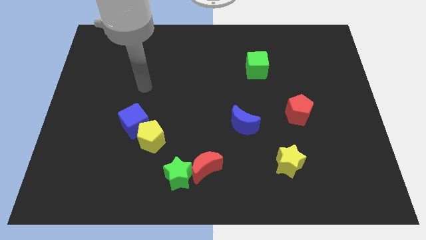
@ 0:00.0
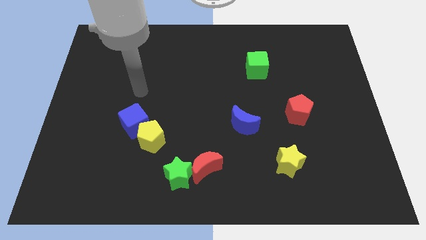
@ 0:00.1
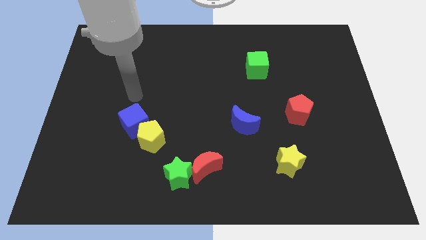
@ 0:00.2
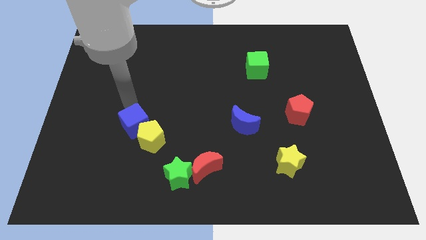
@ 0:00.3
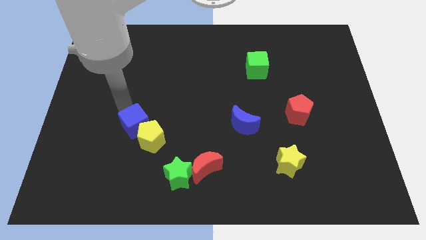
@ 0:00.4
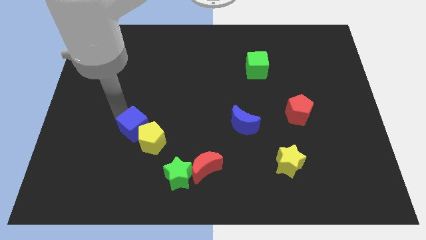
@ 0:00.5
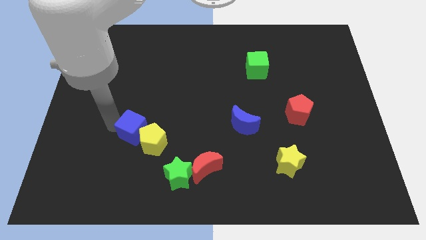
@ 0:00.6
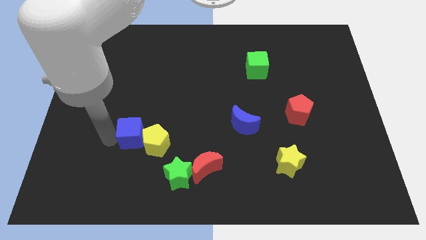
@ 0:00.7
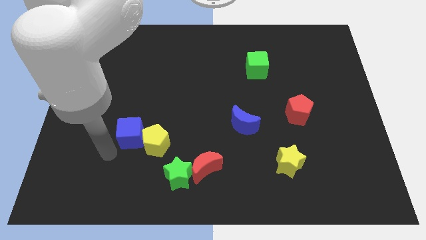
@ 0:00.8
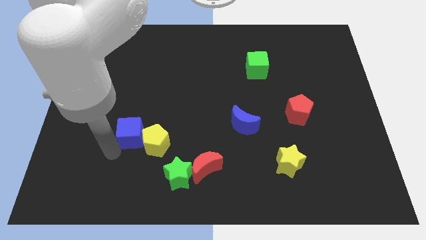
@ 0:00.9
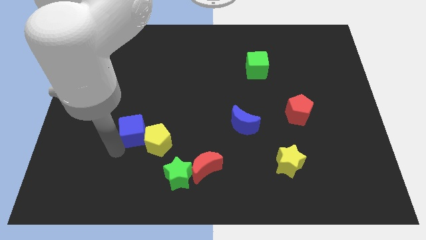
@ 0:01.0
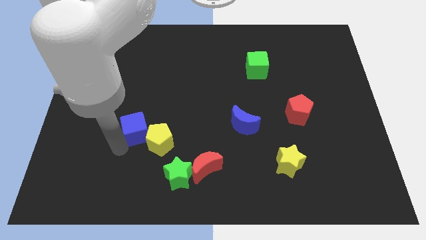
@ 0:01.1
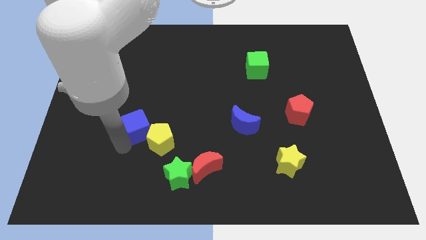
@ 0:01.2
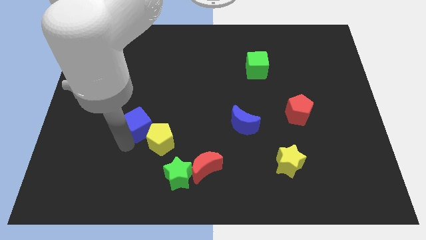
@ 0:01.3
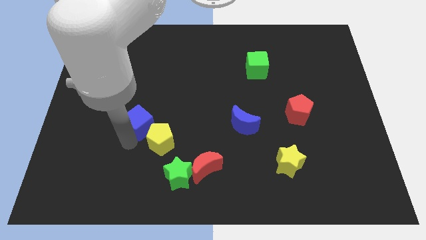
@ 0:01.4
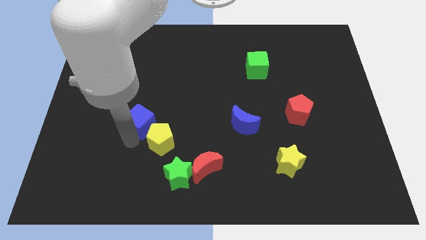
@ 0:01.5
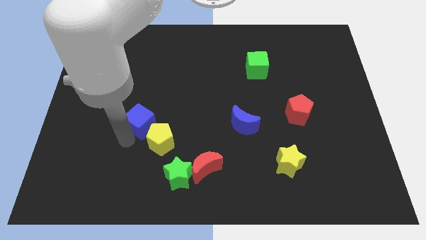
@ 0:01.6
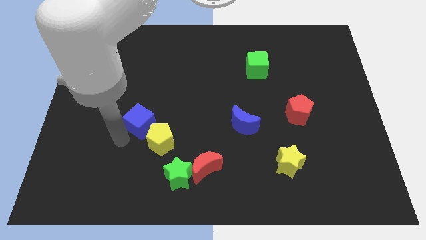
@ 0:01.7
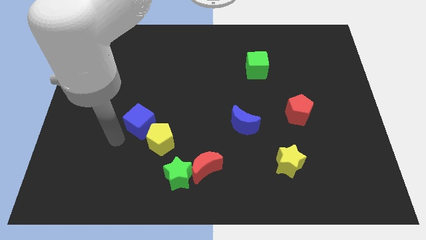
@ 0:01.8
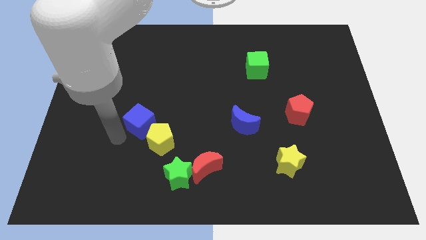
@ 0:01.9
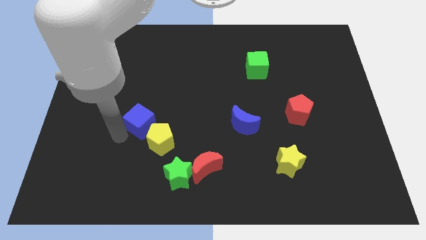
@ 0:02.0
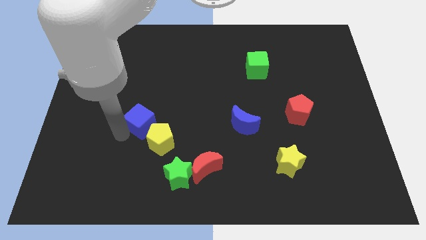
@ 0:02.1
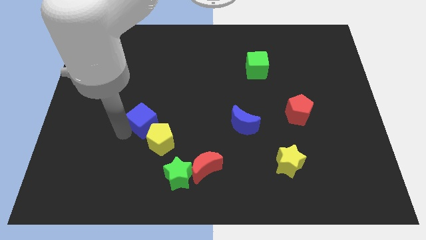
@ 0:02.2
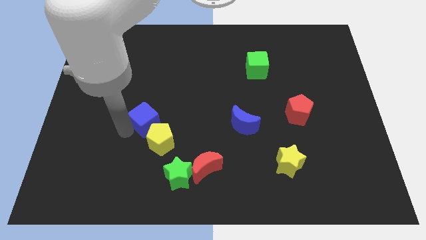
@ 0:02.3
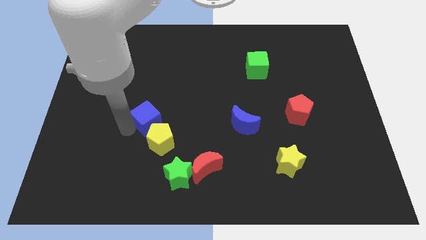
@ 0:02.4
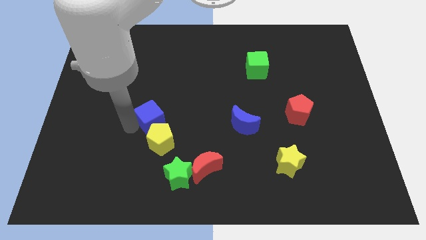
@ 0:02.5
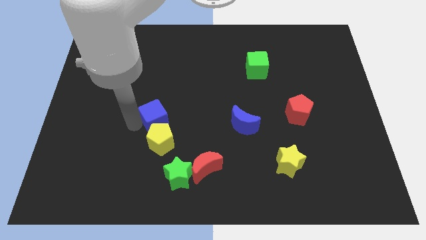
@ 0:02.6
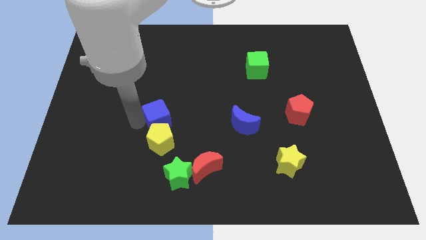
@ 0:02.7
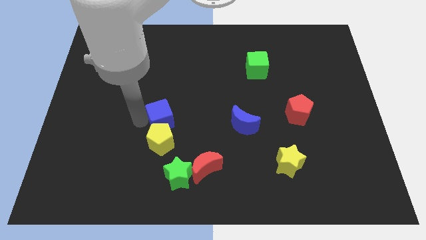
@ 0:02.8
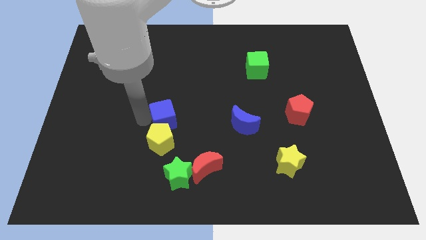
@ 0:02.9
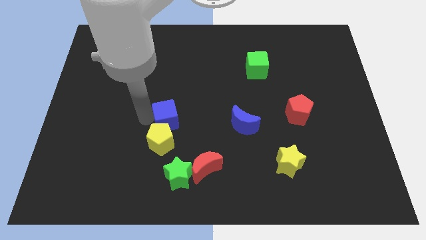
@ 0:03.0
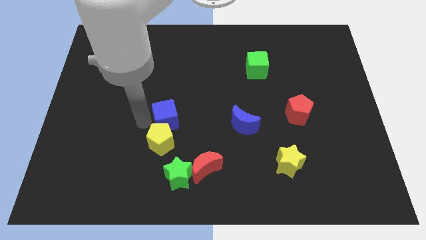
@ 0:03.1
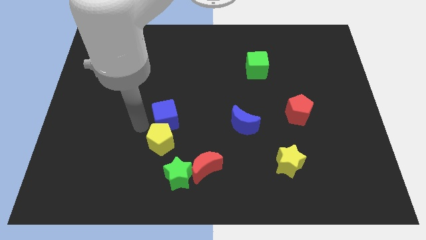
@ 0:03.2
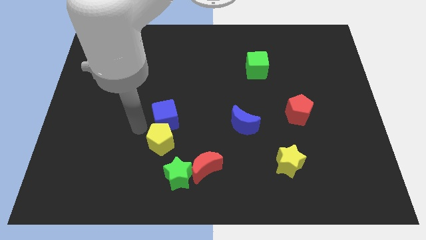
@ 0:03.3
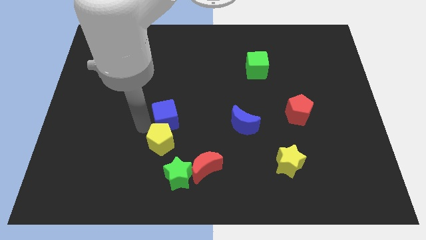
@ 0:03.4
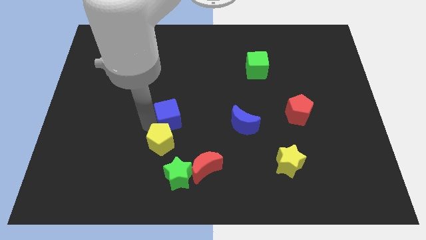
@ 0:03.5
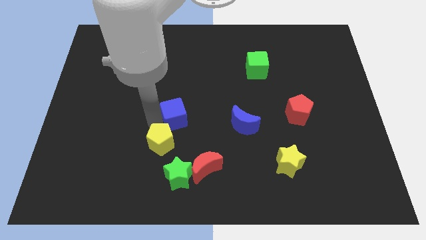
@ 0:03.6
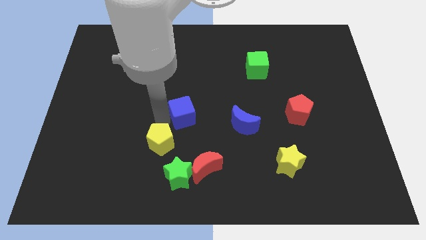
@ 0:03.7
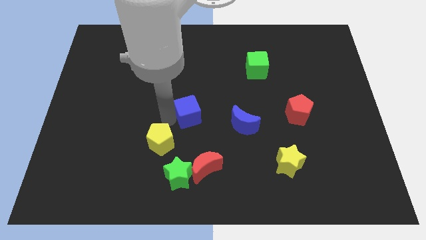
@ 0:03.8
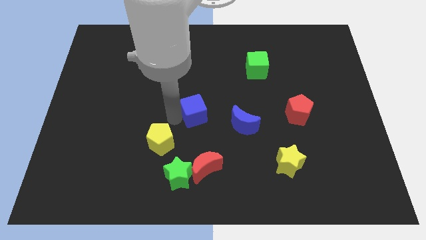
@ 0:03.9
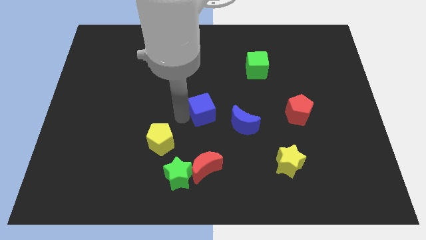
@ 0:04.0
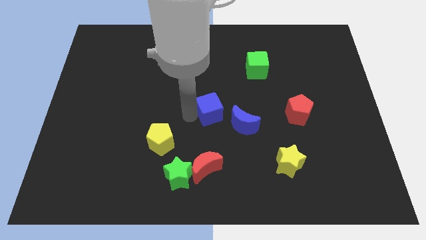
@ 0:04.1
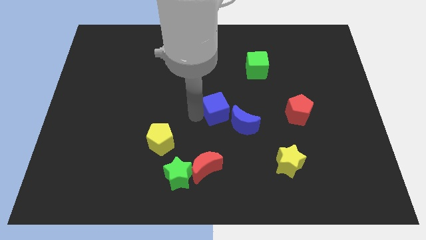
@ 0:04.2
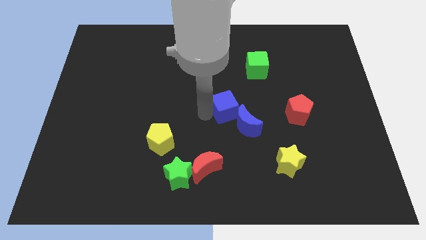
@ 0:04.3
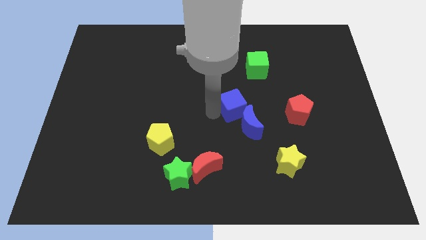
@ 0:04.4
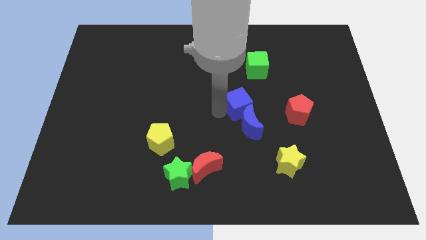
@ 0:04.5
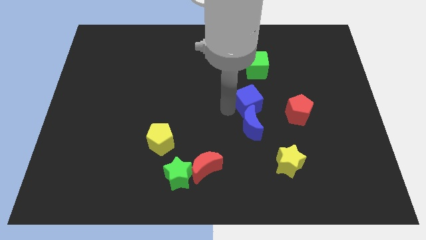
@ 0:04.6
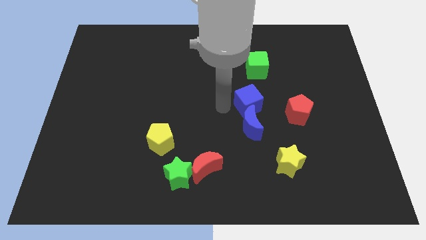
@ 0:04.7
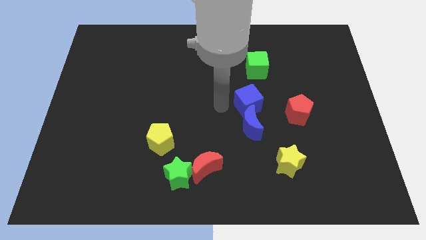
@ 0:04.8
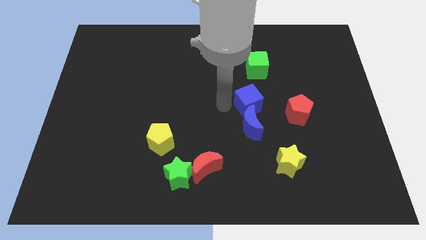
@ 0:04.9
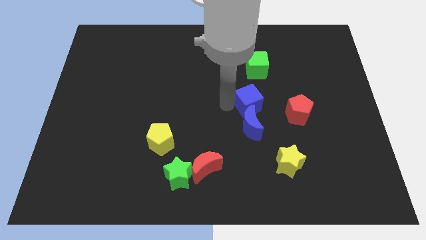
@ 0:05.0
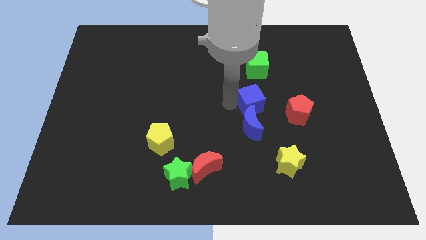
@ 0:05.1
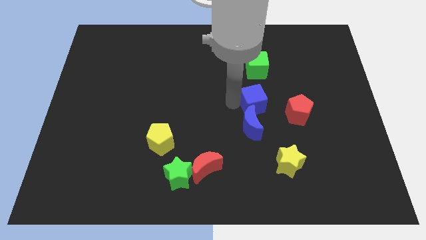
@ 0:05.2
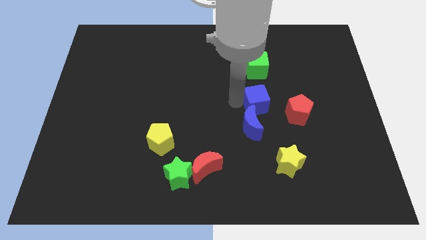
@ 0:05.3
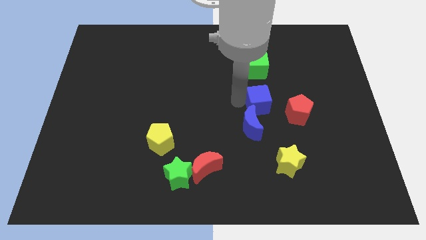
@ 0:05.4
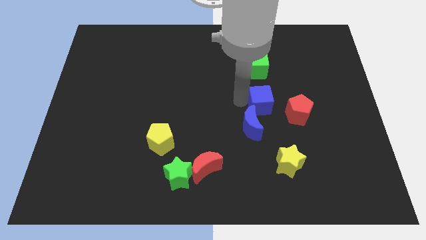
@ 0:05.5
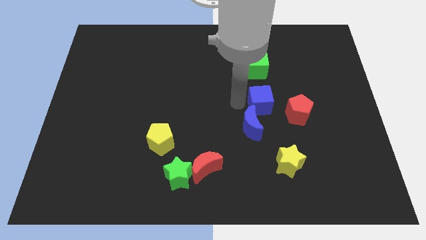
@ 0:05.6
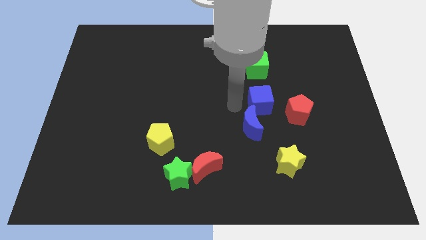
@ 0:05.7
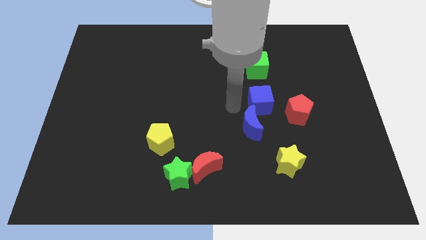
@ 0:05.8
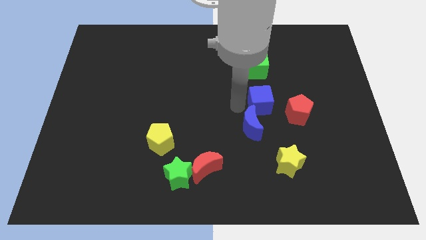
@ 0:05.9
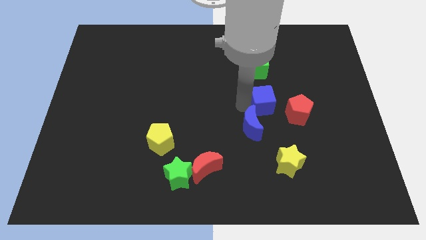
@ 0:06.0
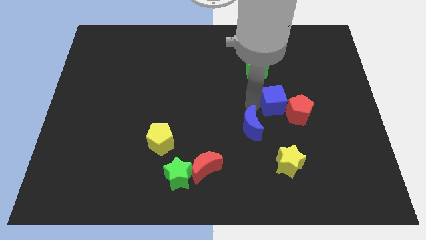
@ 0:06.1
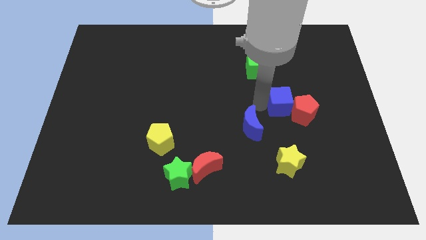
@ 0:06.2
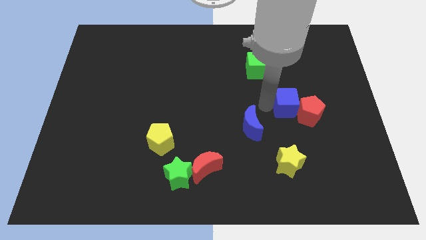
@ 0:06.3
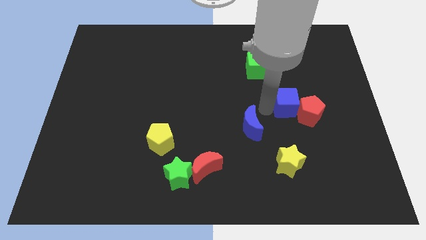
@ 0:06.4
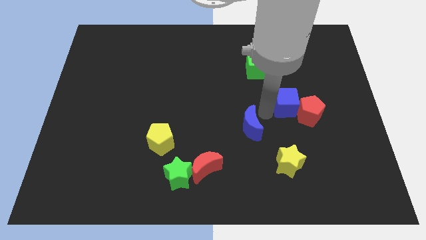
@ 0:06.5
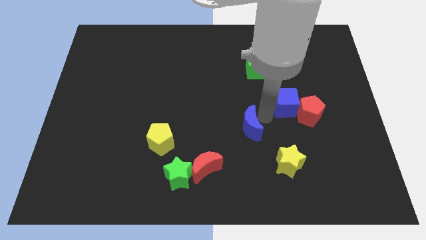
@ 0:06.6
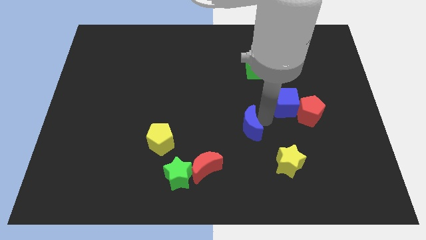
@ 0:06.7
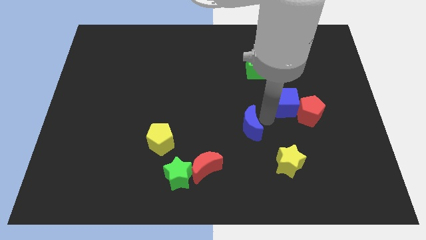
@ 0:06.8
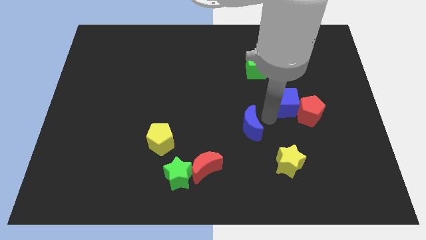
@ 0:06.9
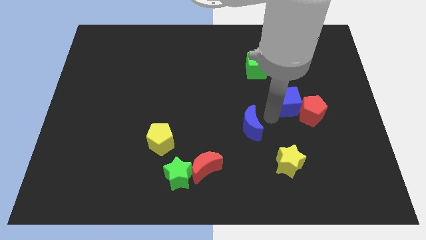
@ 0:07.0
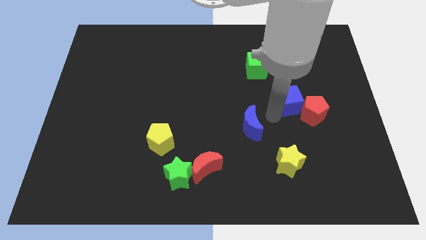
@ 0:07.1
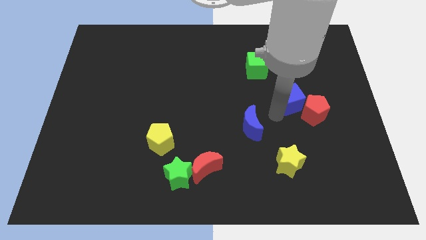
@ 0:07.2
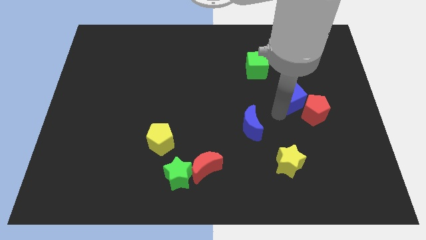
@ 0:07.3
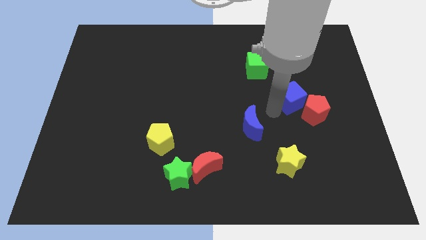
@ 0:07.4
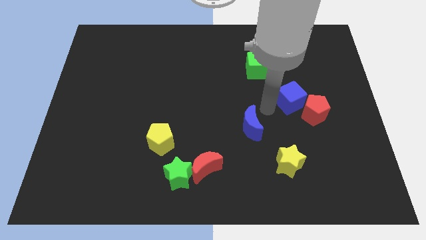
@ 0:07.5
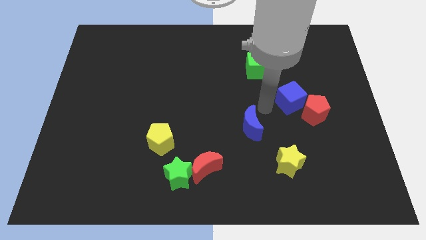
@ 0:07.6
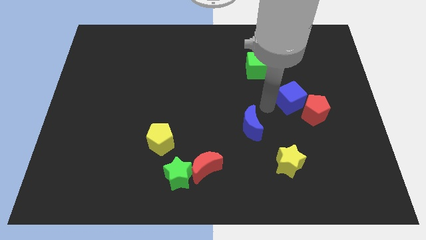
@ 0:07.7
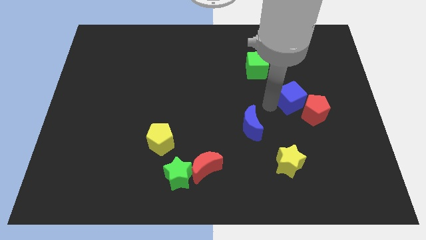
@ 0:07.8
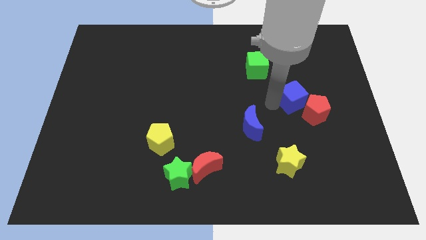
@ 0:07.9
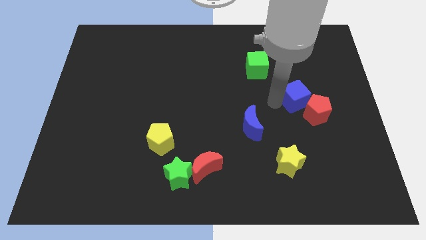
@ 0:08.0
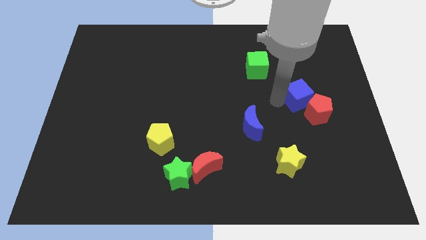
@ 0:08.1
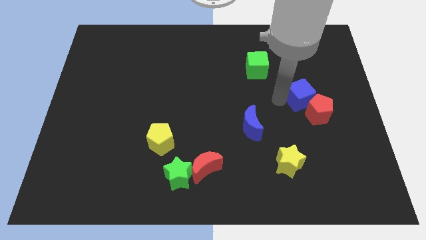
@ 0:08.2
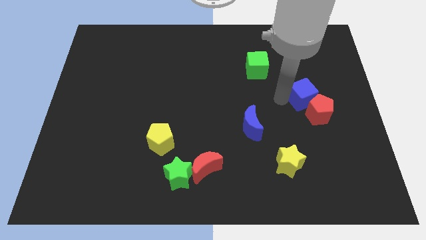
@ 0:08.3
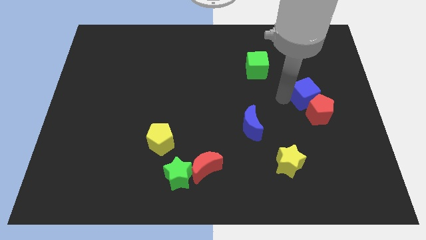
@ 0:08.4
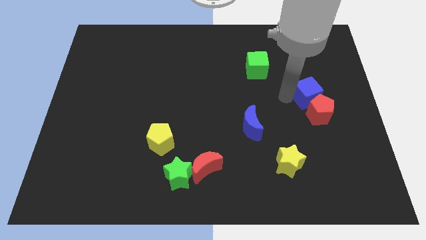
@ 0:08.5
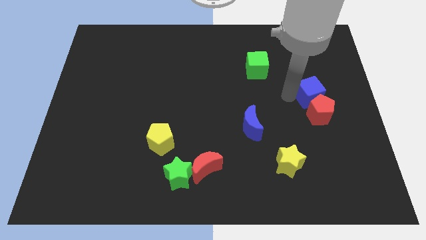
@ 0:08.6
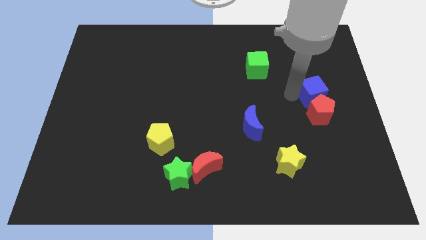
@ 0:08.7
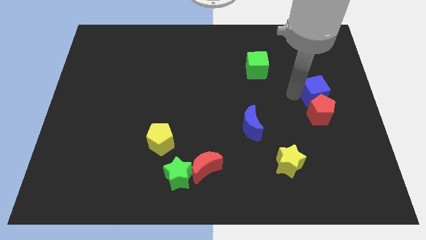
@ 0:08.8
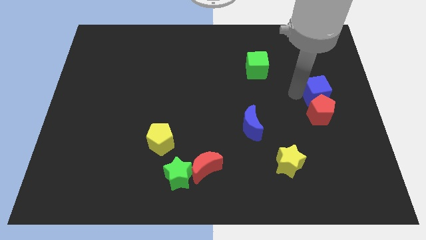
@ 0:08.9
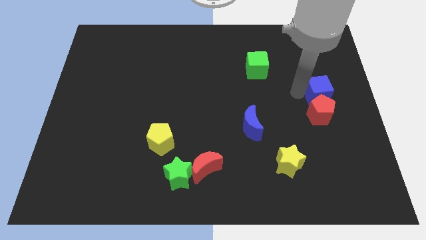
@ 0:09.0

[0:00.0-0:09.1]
slide the blue cube to the right side
